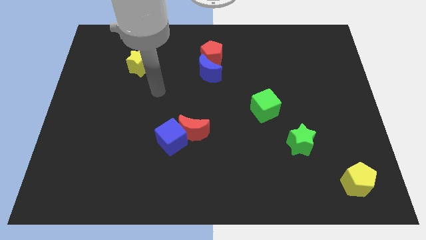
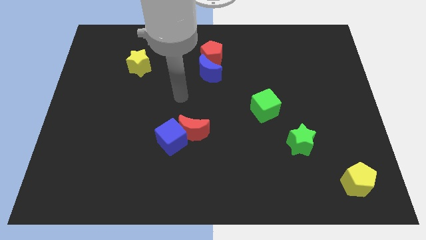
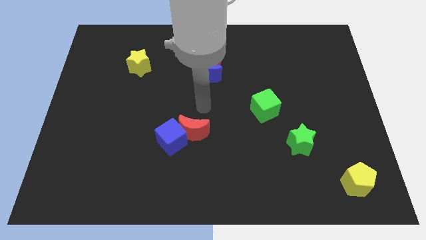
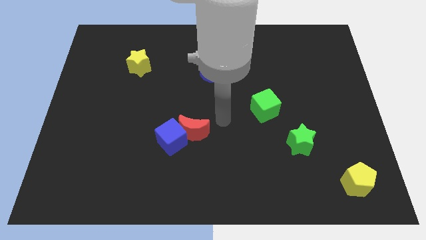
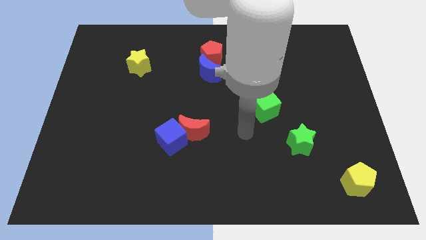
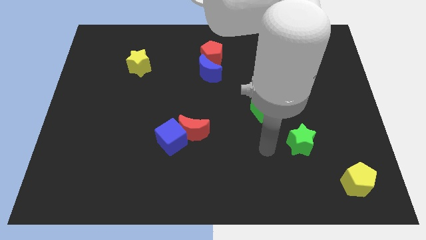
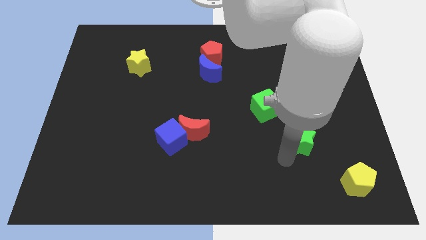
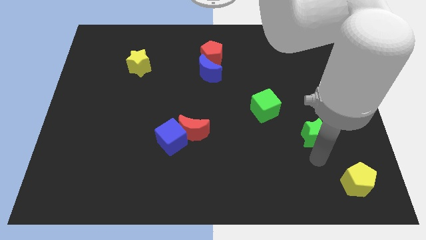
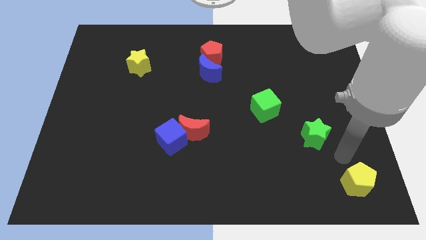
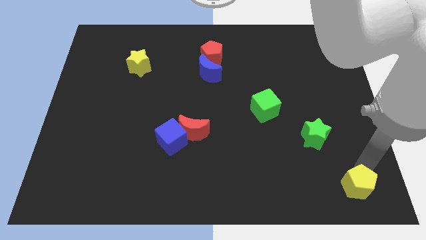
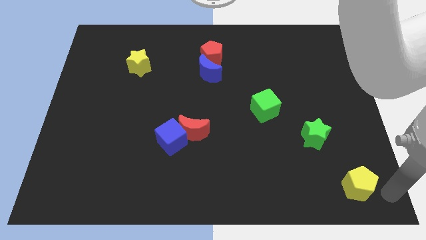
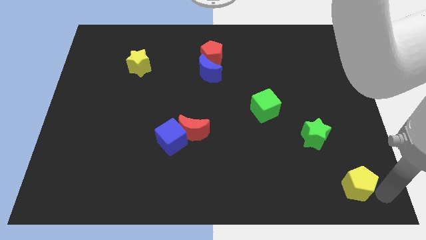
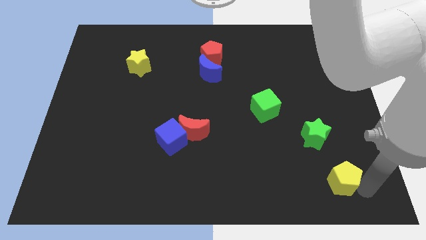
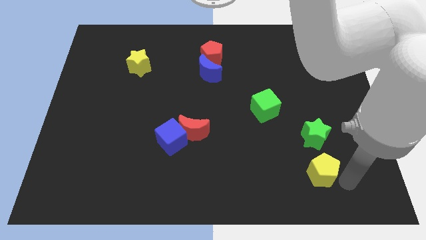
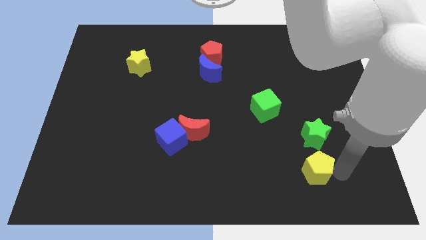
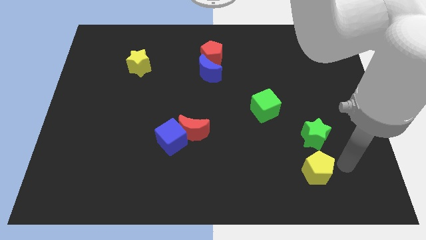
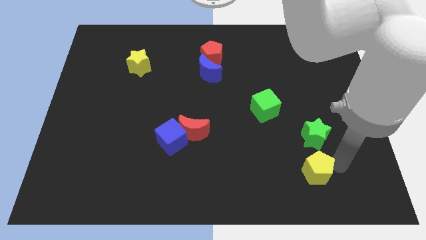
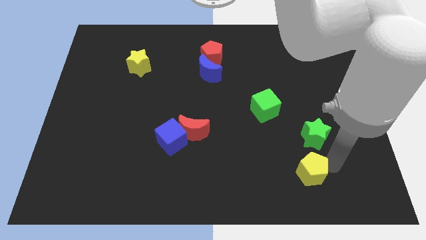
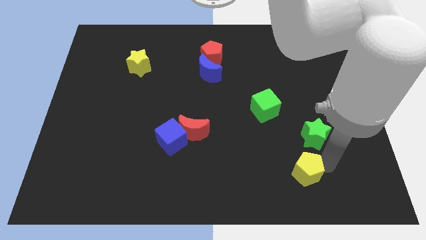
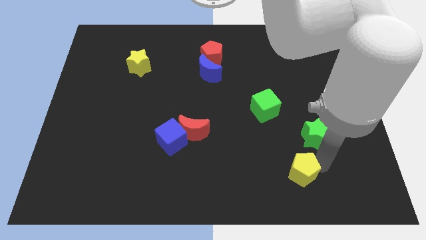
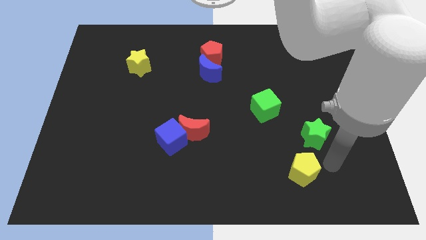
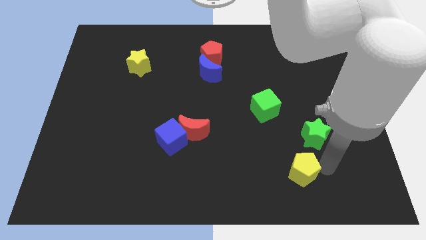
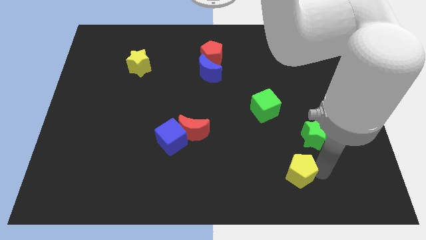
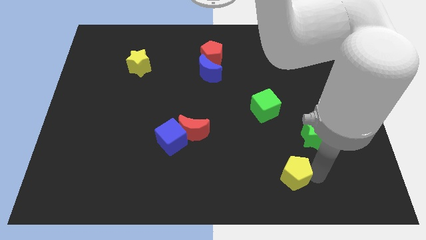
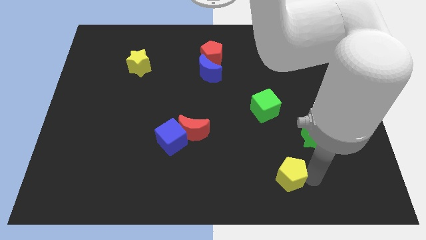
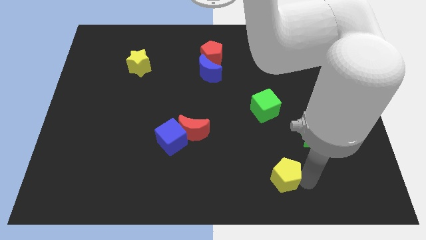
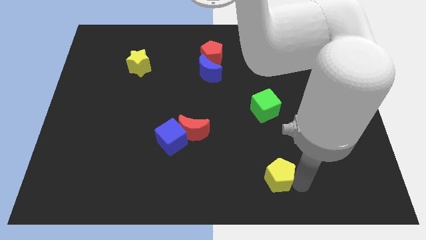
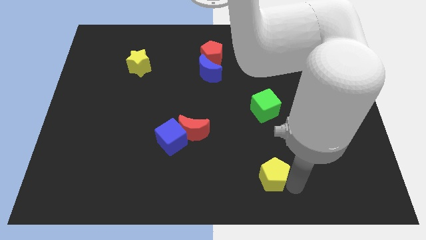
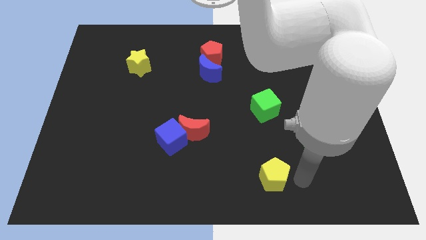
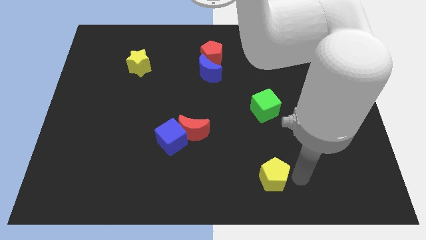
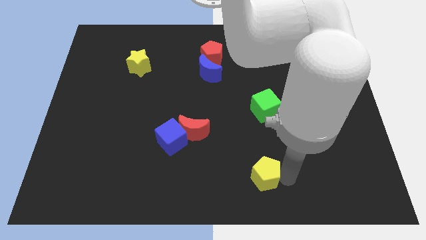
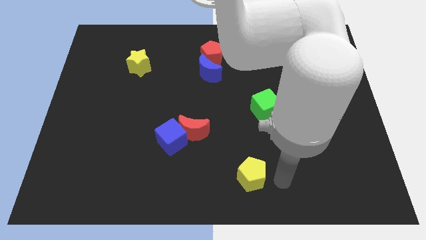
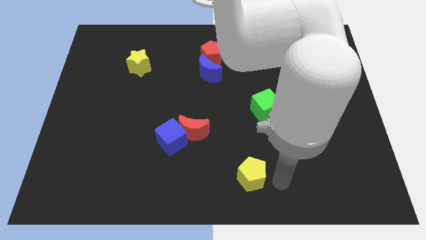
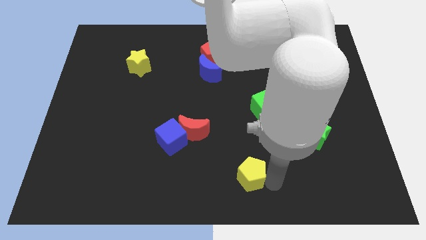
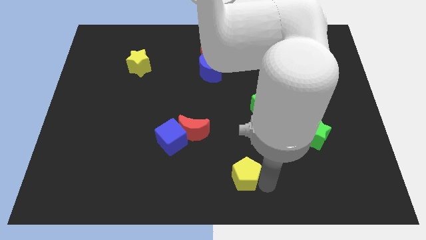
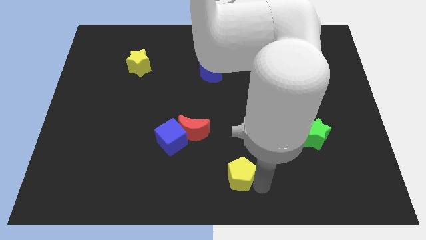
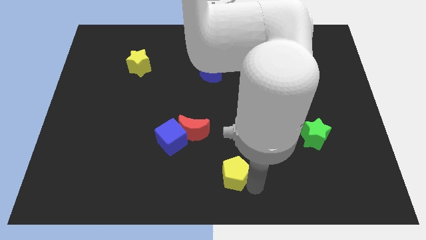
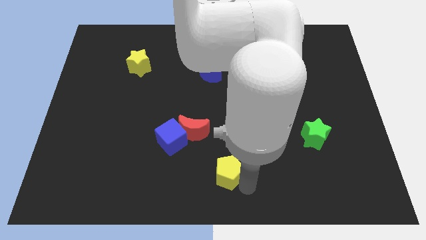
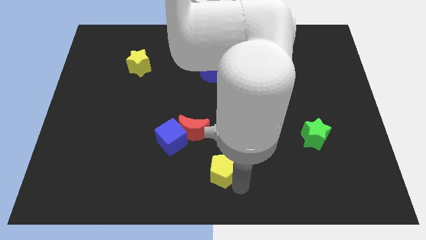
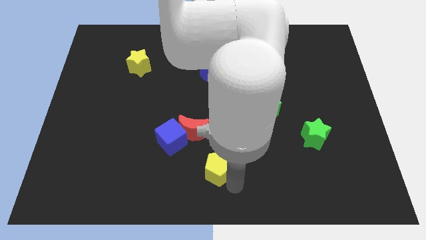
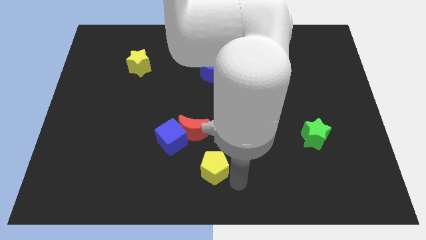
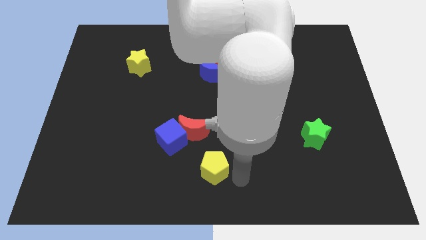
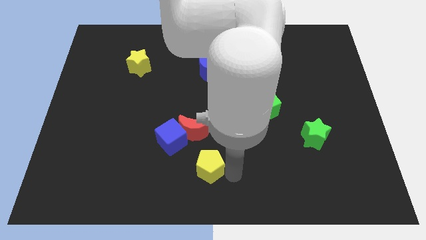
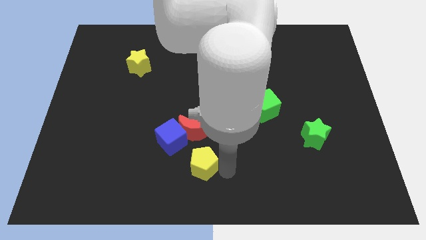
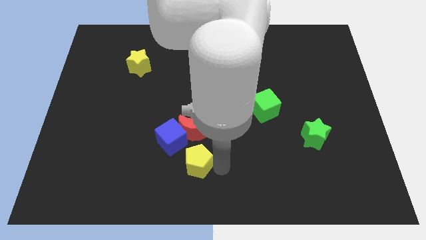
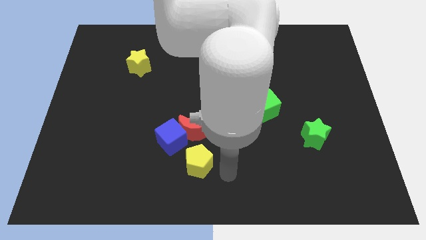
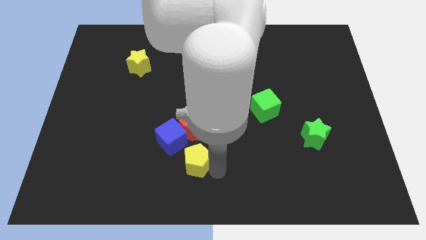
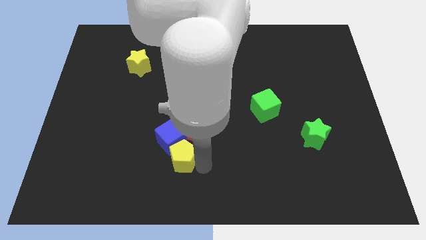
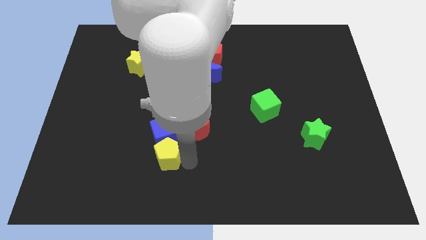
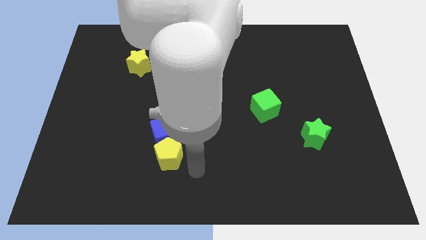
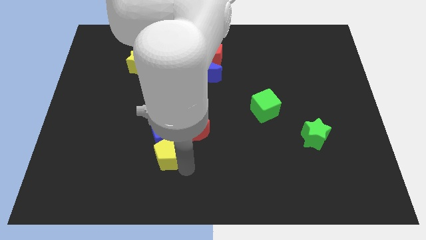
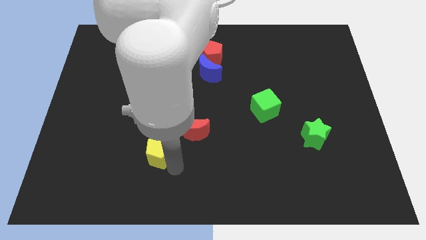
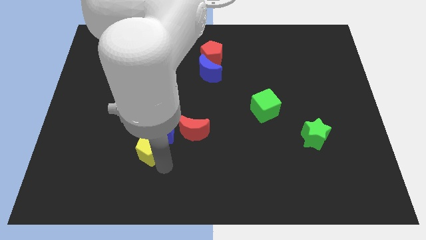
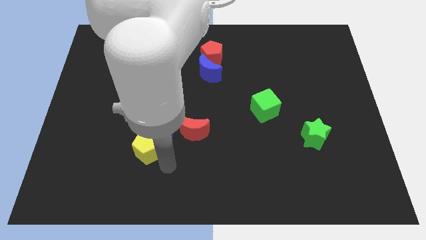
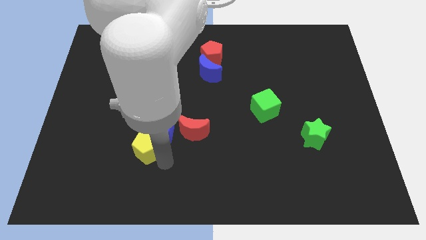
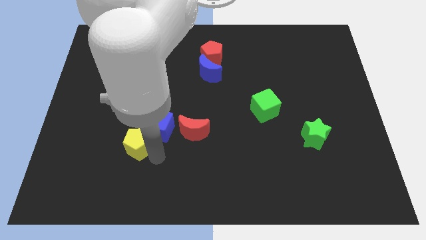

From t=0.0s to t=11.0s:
move the yellow pentagon left of the blue cube

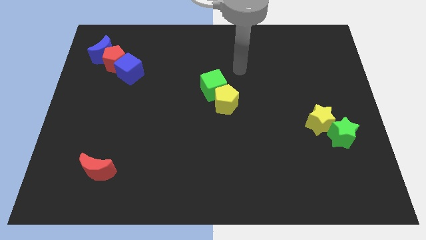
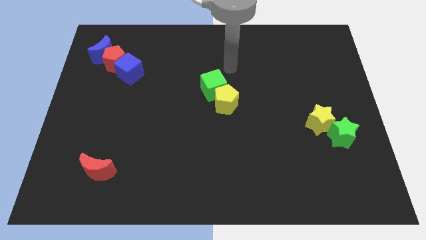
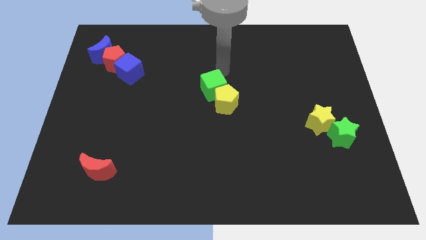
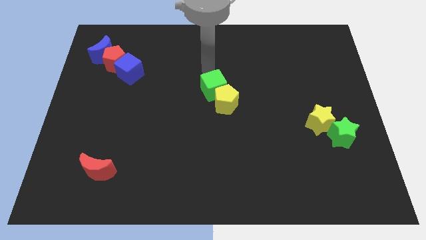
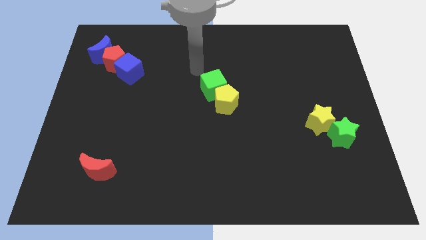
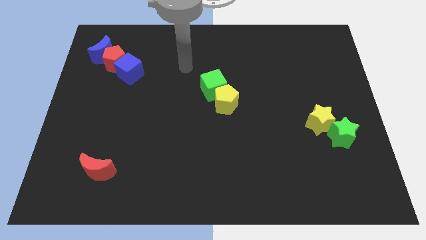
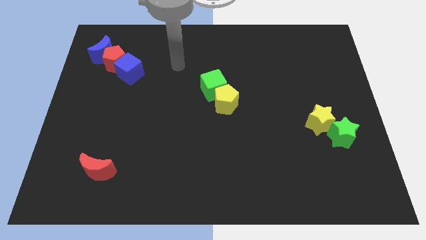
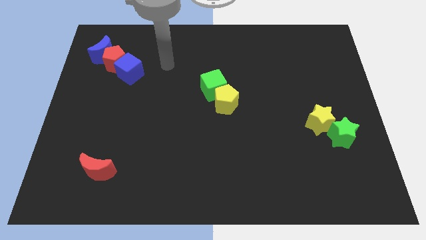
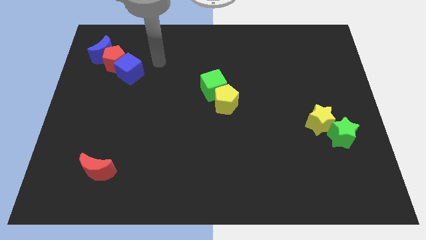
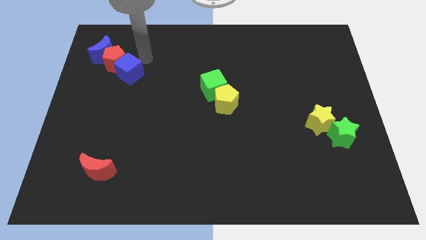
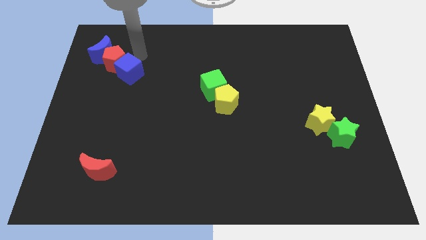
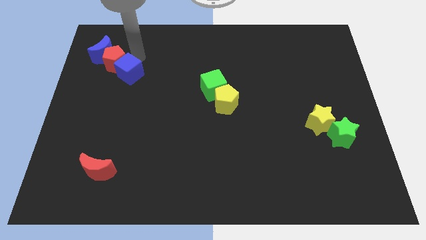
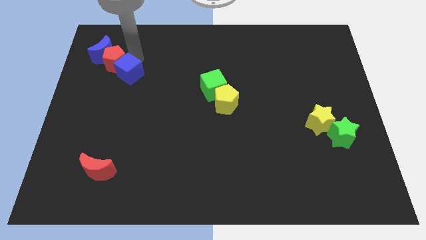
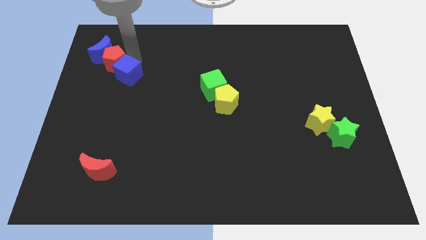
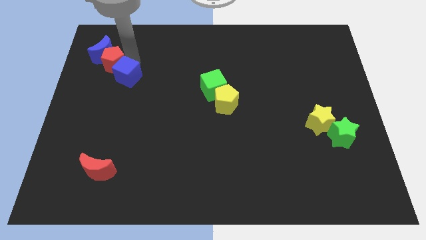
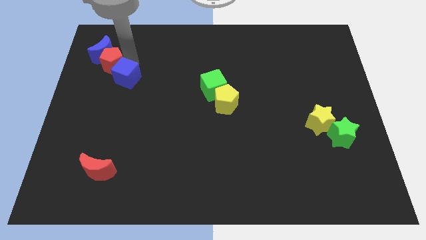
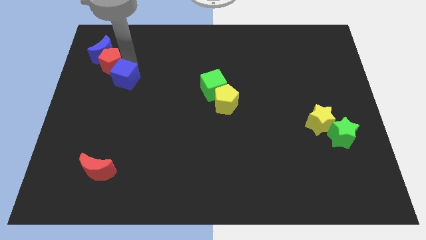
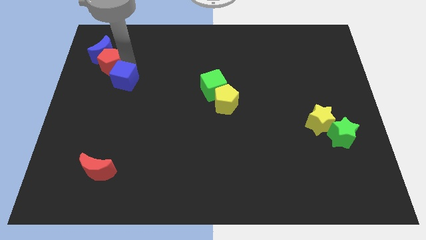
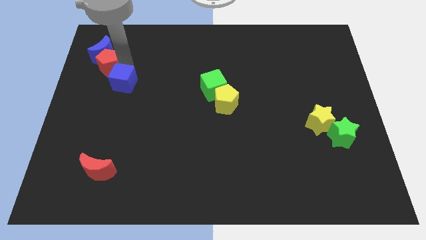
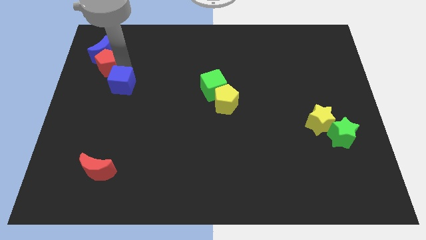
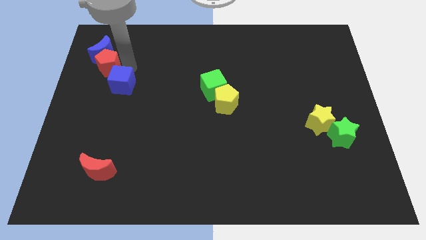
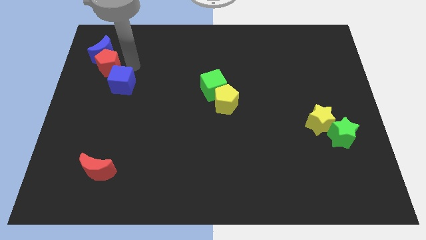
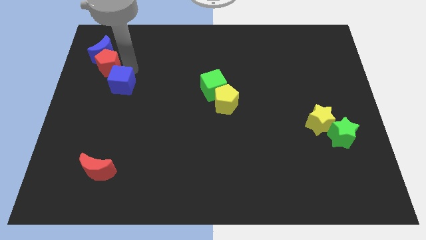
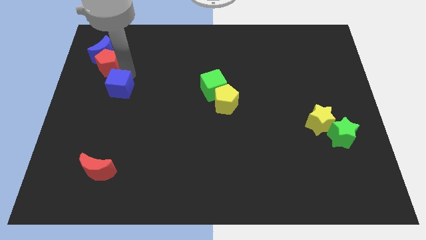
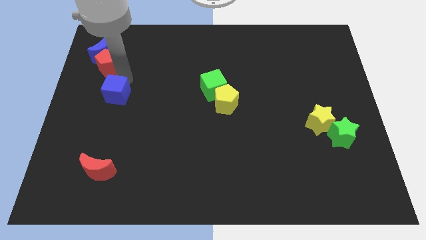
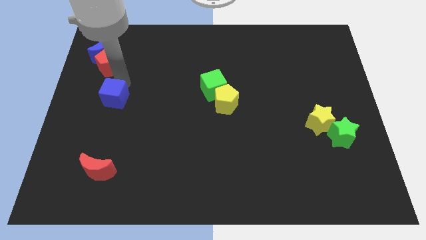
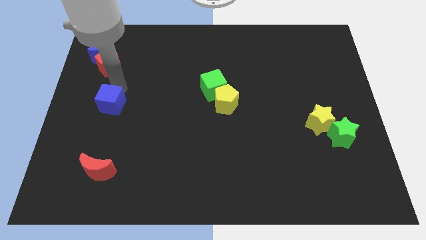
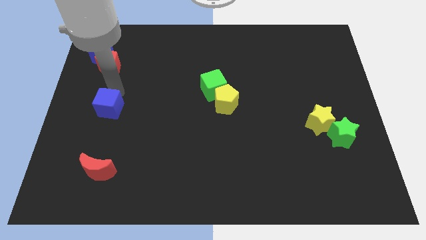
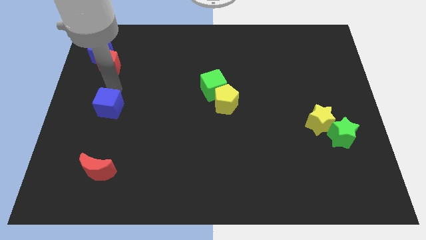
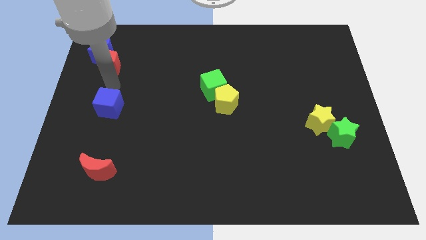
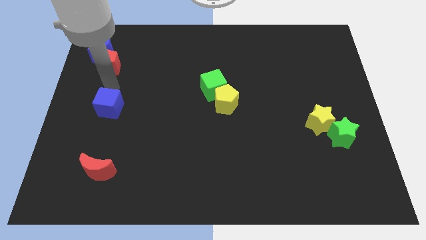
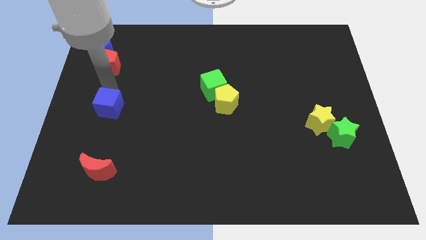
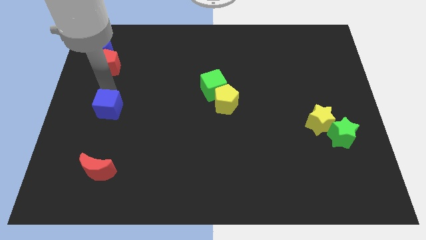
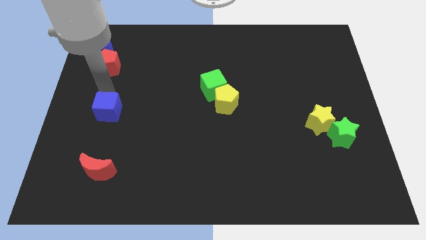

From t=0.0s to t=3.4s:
put the blue cube above the red moon
